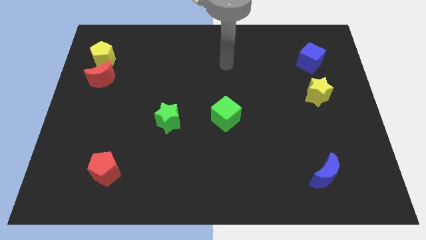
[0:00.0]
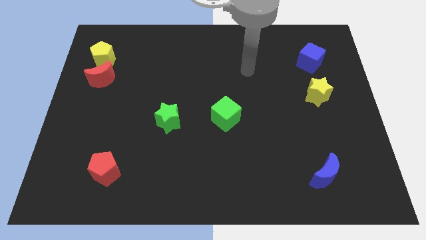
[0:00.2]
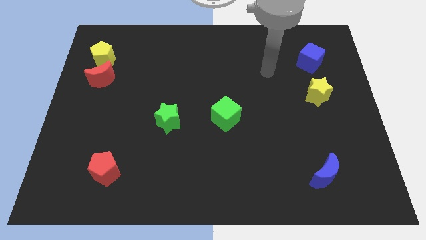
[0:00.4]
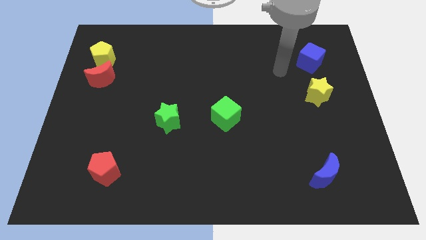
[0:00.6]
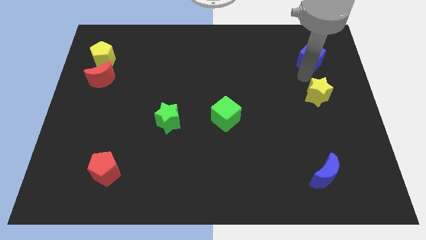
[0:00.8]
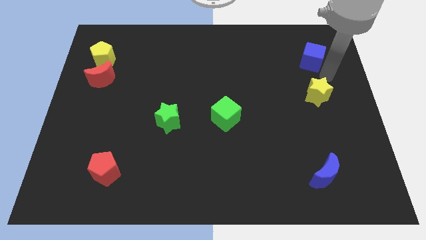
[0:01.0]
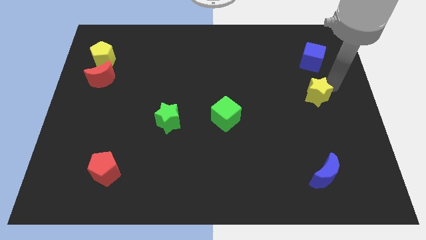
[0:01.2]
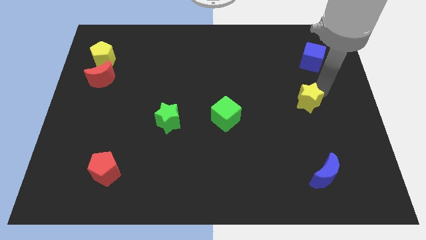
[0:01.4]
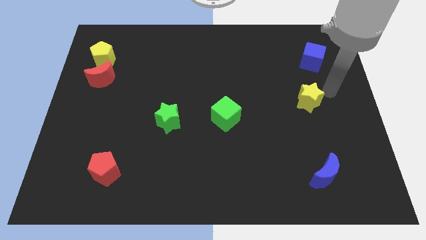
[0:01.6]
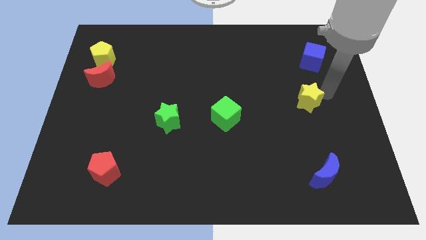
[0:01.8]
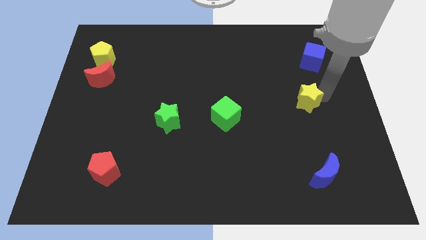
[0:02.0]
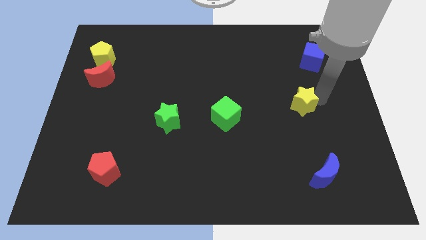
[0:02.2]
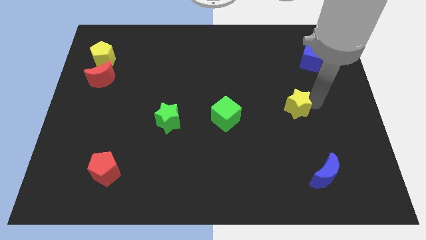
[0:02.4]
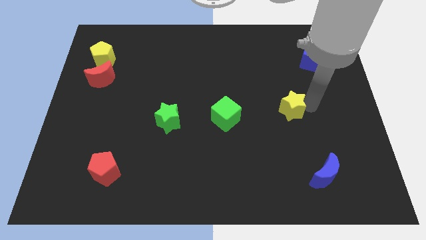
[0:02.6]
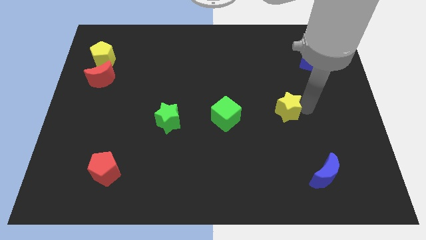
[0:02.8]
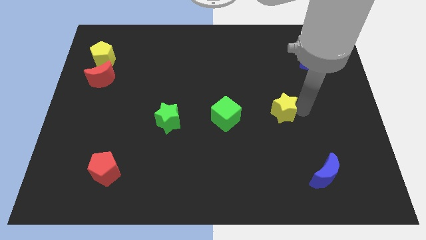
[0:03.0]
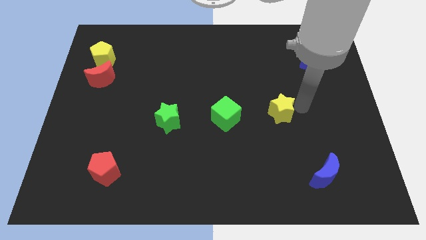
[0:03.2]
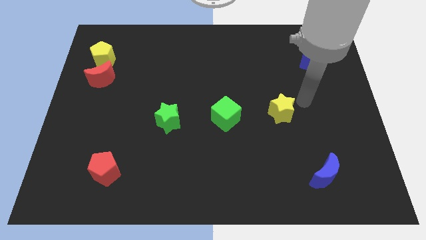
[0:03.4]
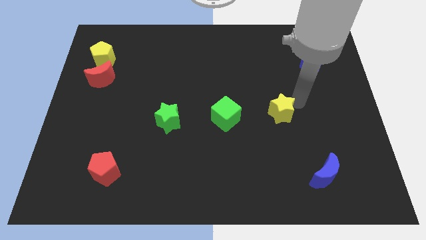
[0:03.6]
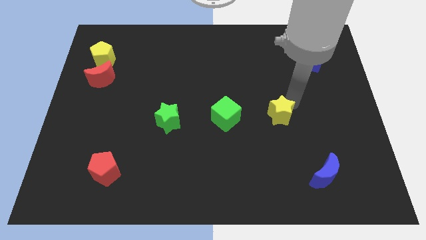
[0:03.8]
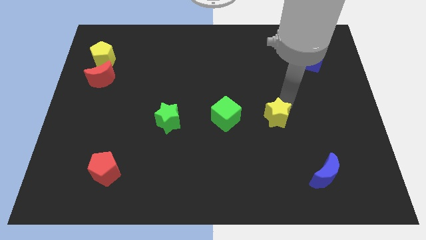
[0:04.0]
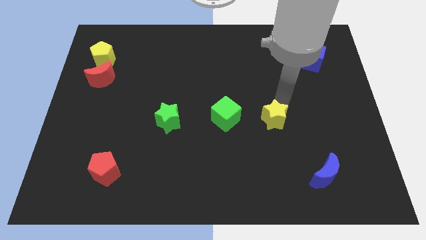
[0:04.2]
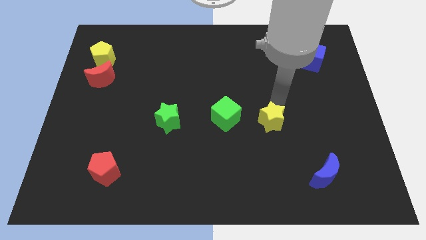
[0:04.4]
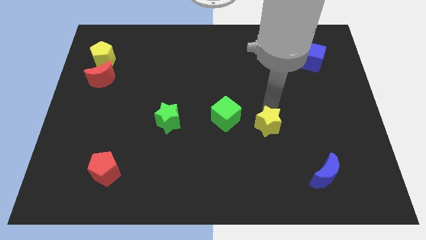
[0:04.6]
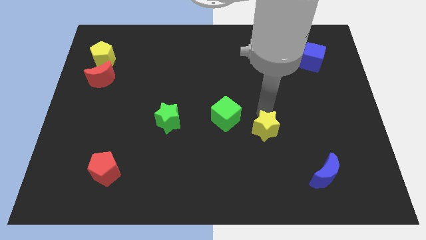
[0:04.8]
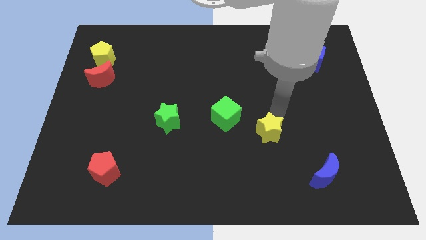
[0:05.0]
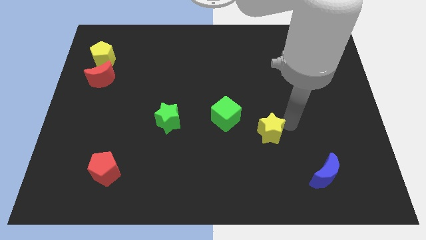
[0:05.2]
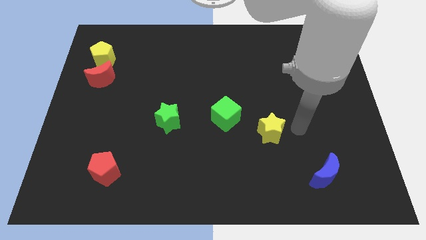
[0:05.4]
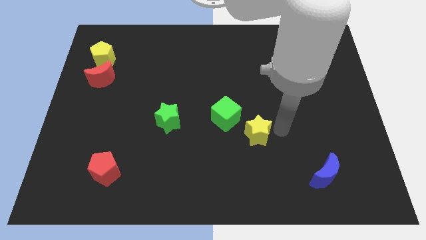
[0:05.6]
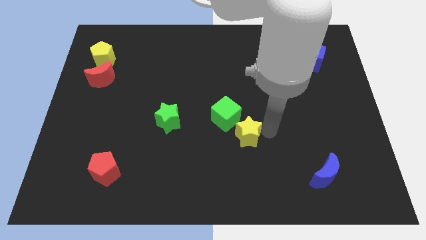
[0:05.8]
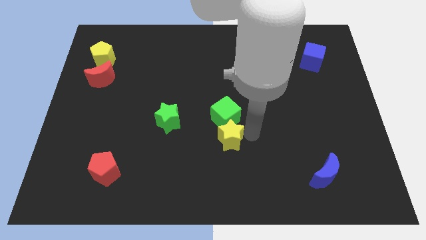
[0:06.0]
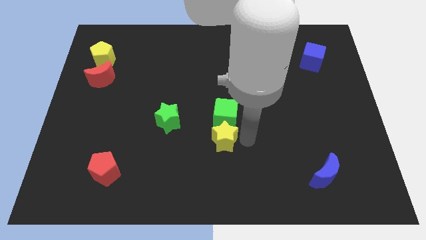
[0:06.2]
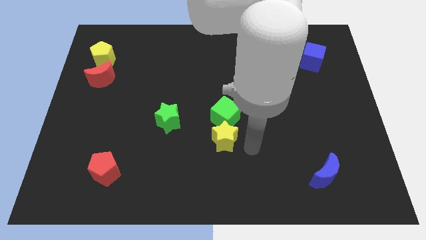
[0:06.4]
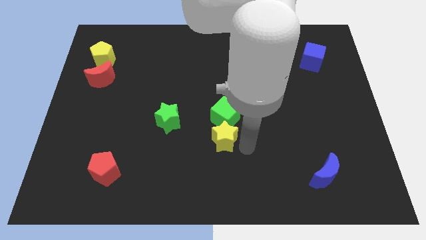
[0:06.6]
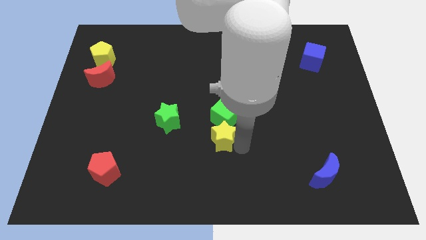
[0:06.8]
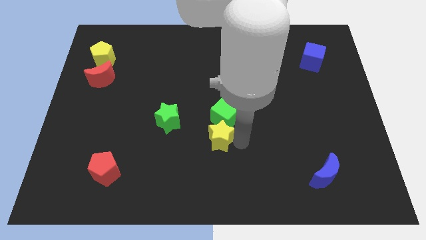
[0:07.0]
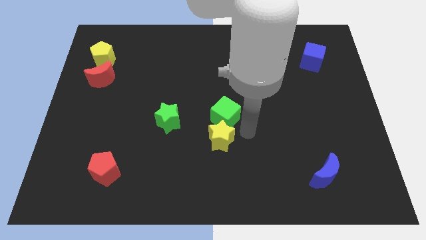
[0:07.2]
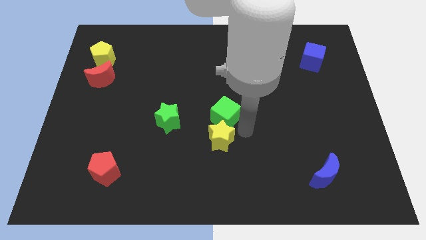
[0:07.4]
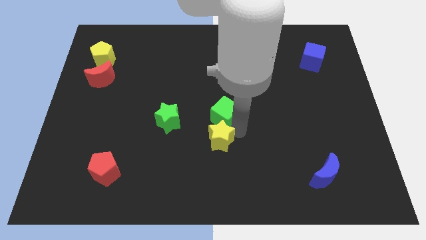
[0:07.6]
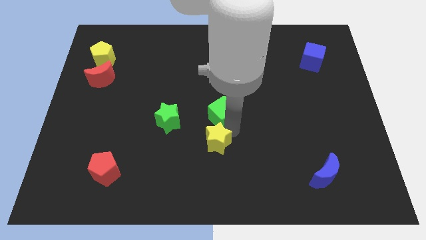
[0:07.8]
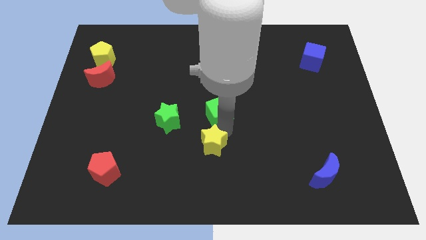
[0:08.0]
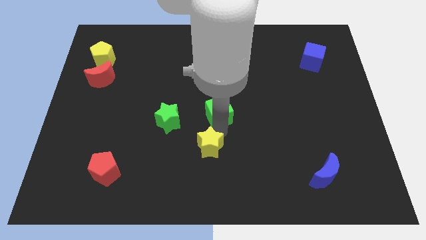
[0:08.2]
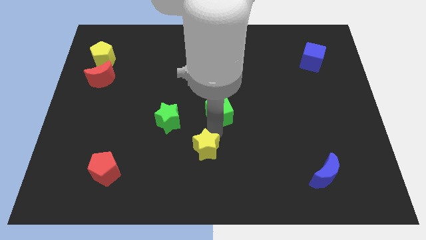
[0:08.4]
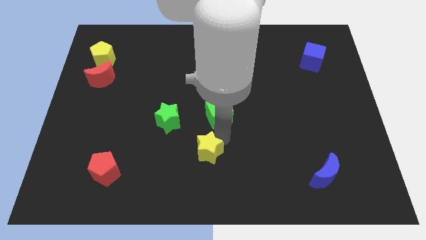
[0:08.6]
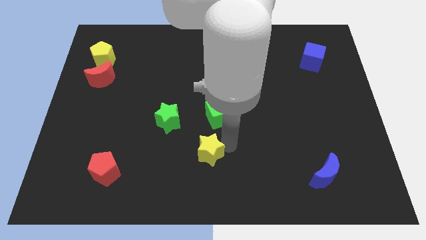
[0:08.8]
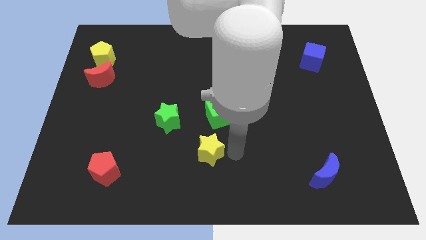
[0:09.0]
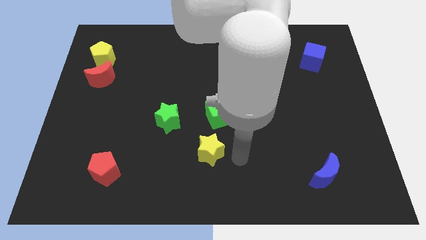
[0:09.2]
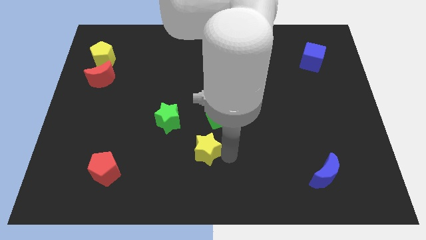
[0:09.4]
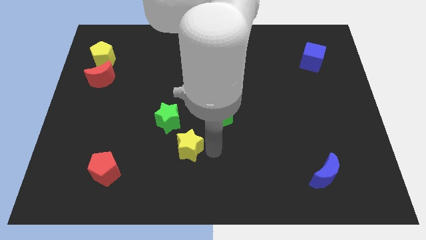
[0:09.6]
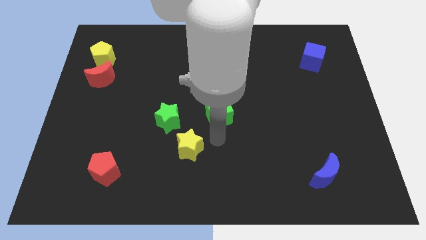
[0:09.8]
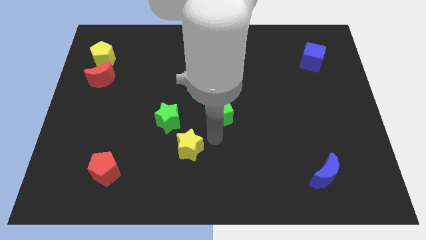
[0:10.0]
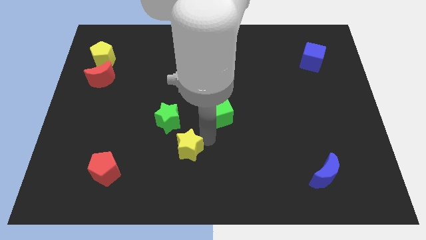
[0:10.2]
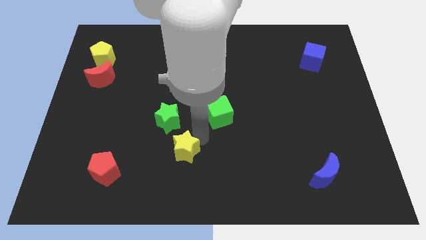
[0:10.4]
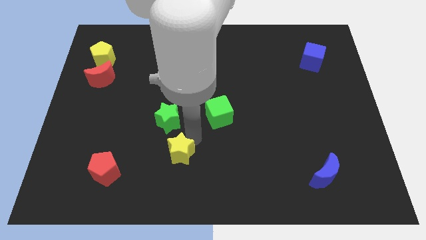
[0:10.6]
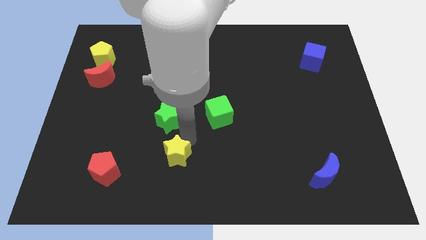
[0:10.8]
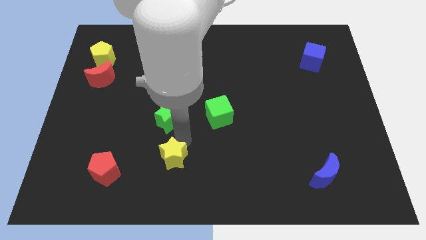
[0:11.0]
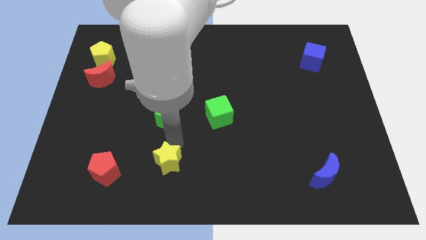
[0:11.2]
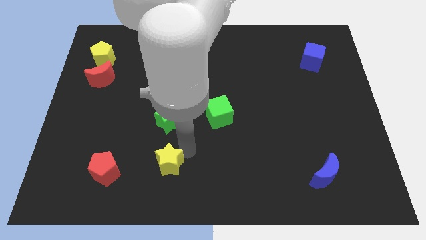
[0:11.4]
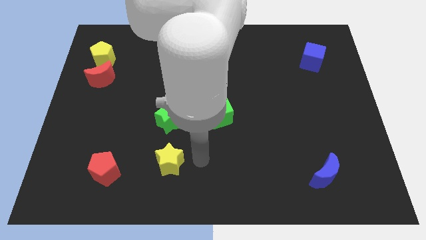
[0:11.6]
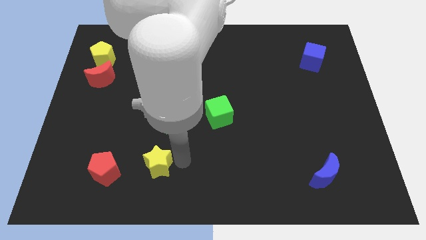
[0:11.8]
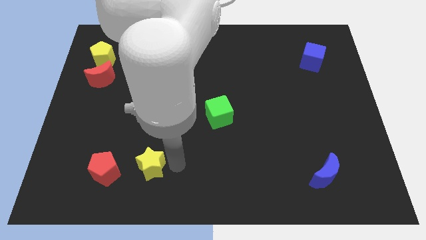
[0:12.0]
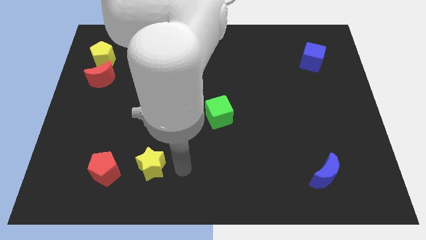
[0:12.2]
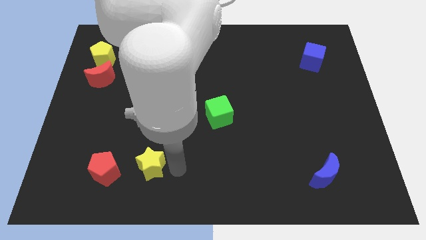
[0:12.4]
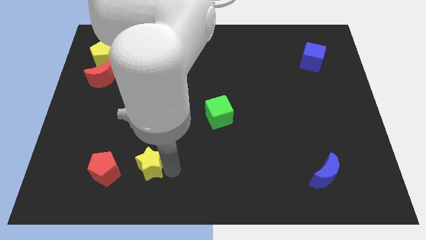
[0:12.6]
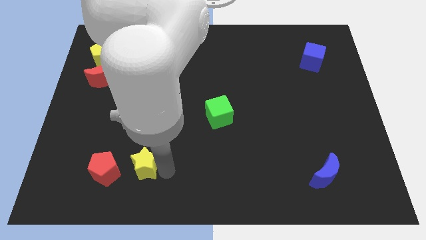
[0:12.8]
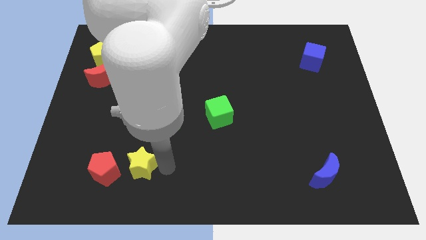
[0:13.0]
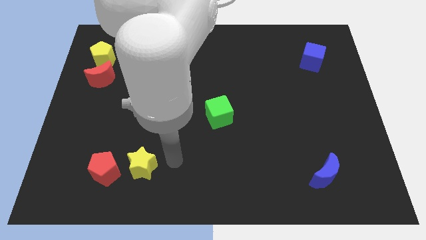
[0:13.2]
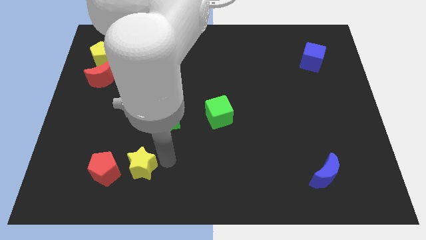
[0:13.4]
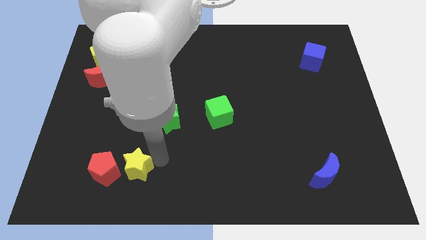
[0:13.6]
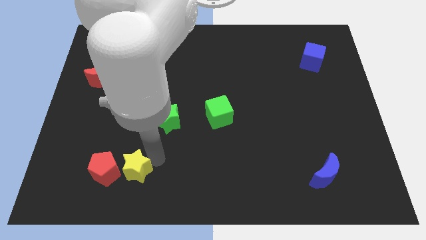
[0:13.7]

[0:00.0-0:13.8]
push the yellow star close to the red pentagon
